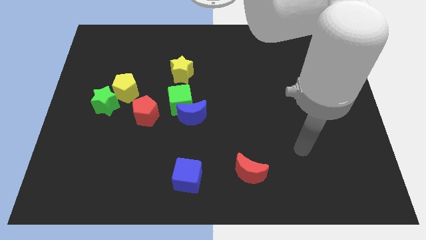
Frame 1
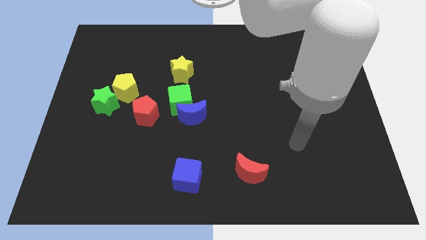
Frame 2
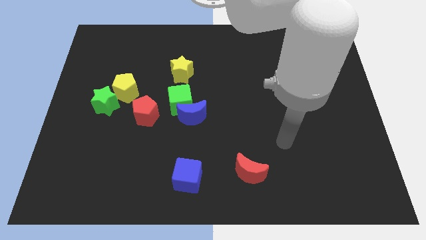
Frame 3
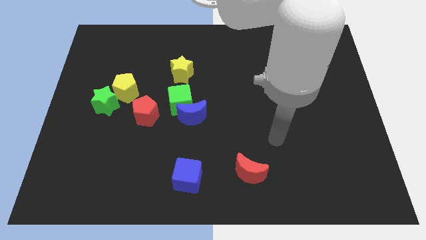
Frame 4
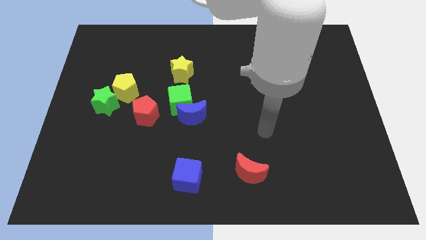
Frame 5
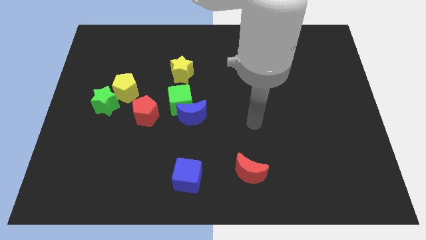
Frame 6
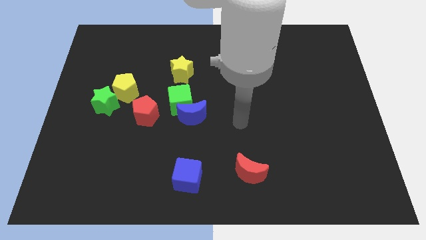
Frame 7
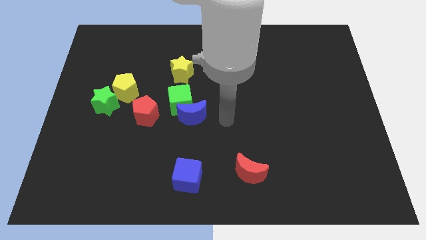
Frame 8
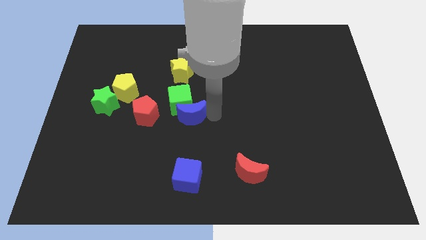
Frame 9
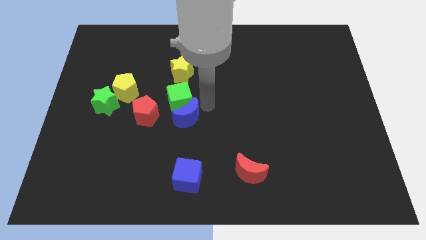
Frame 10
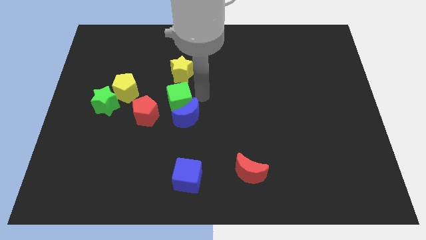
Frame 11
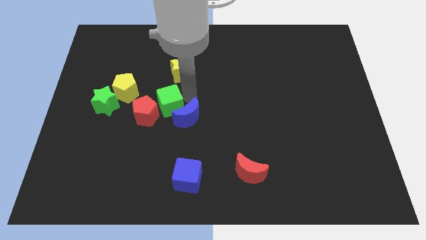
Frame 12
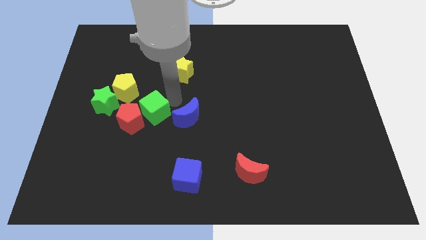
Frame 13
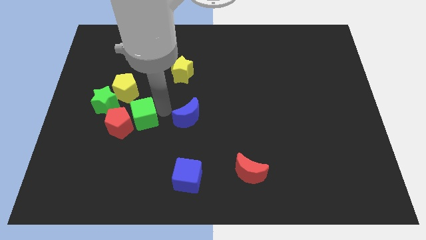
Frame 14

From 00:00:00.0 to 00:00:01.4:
separate the blue moon from the green cube

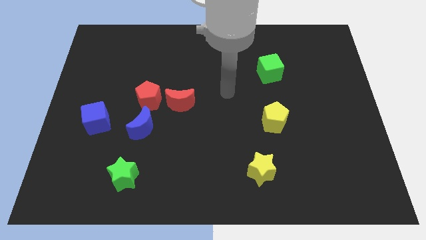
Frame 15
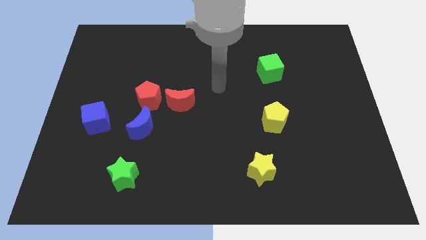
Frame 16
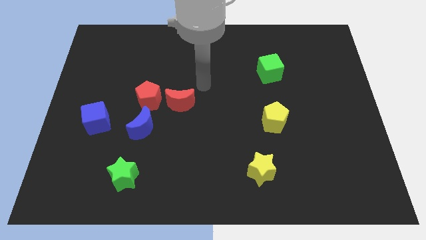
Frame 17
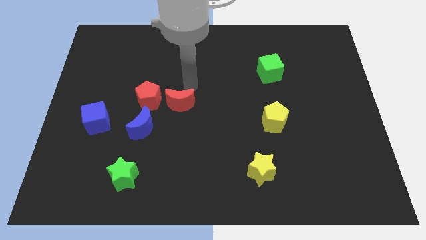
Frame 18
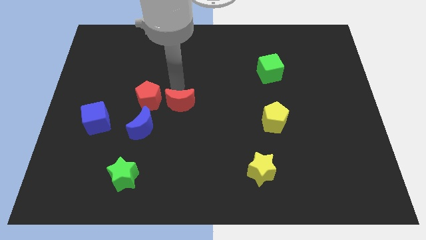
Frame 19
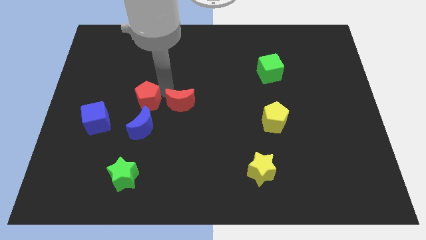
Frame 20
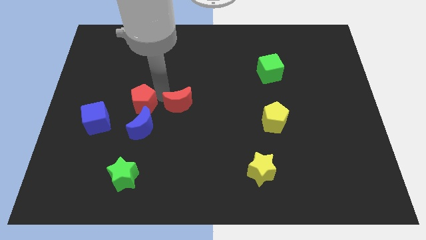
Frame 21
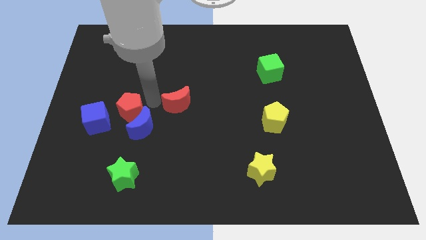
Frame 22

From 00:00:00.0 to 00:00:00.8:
move the red moon away from the red pentagon

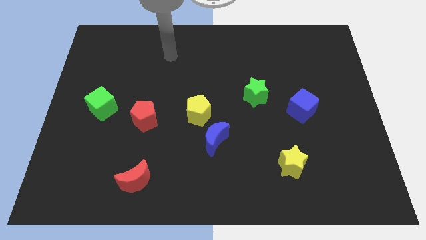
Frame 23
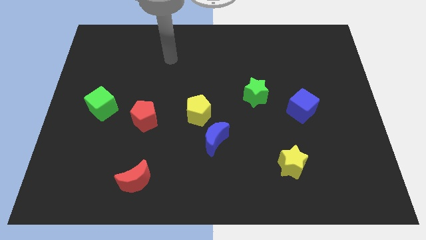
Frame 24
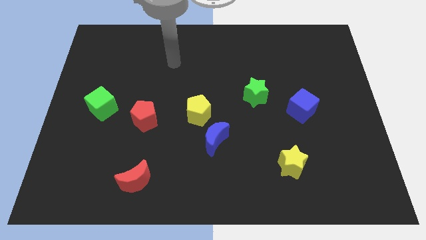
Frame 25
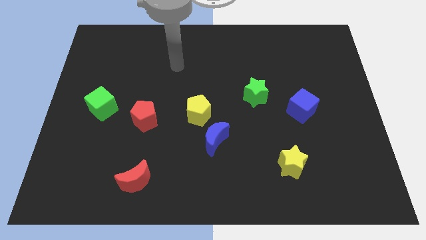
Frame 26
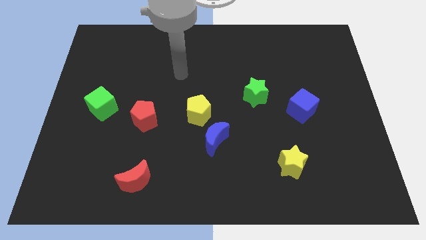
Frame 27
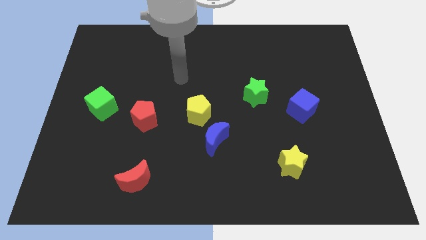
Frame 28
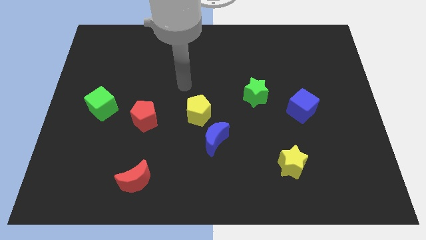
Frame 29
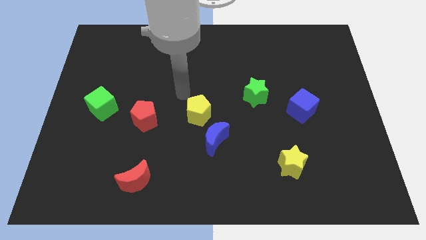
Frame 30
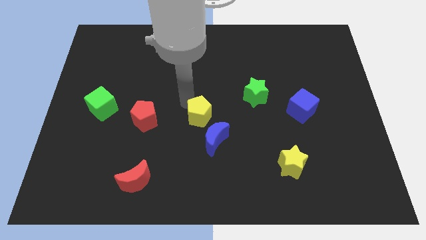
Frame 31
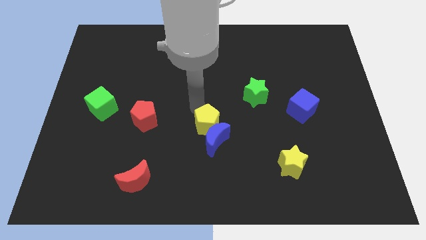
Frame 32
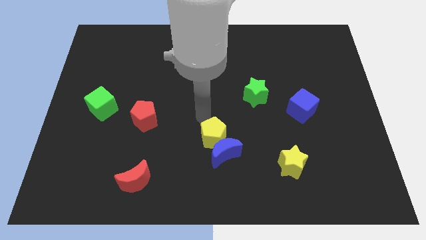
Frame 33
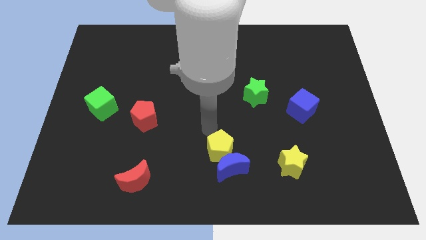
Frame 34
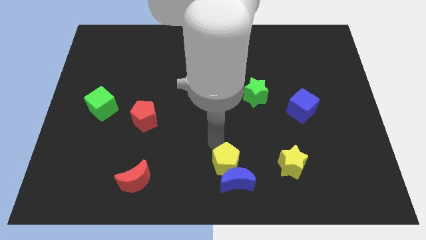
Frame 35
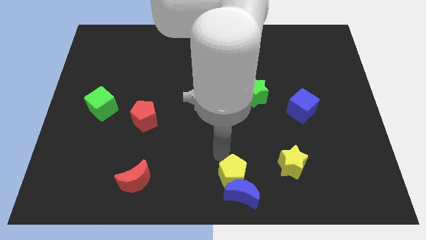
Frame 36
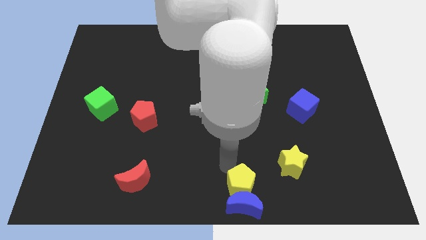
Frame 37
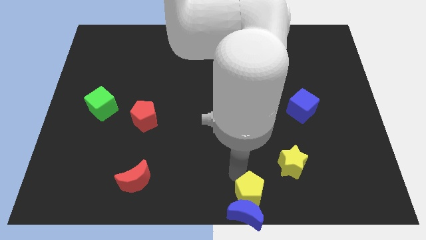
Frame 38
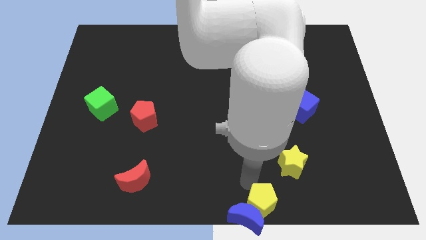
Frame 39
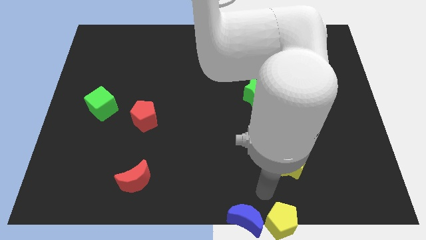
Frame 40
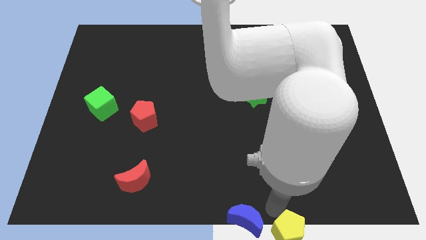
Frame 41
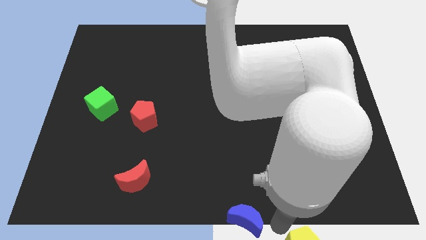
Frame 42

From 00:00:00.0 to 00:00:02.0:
separate the blue moon from the yellow pentagon

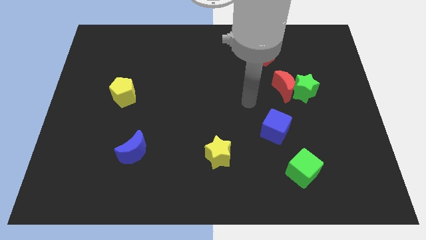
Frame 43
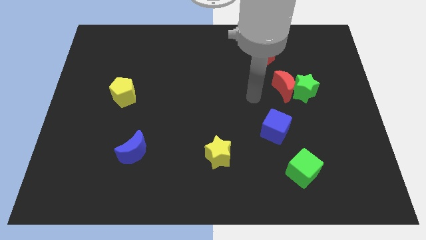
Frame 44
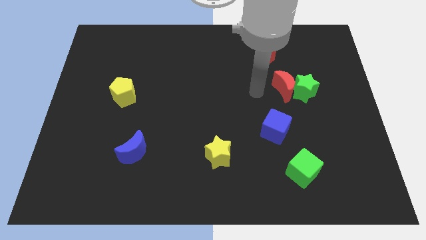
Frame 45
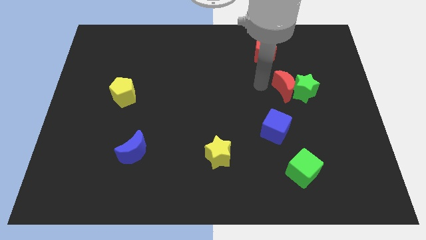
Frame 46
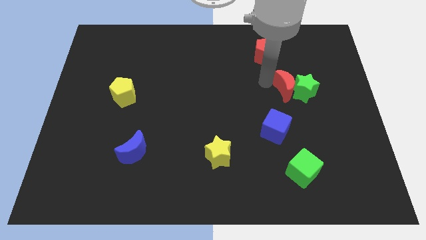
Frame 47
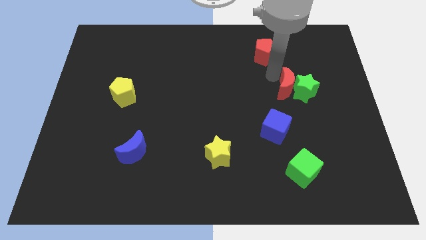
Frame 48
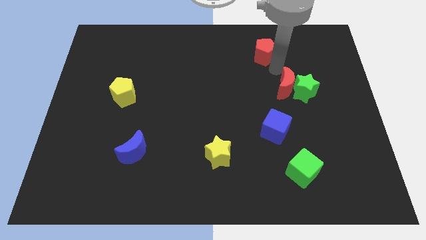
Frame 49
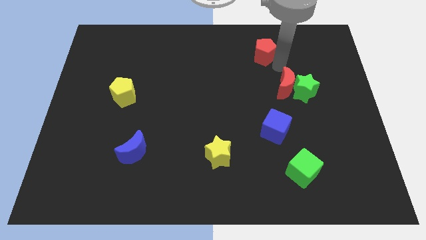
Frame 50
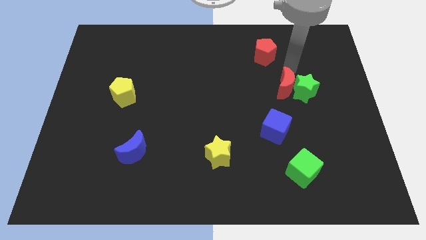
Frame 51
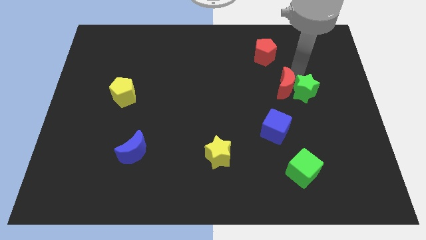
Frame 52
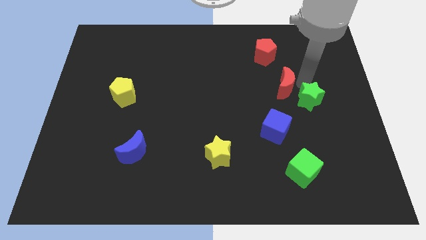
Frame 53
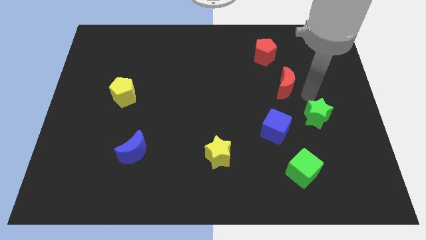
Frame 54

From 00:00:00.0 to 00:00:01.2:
separate the red moon from the green star

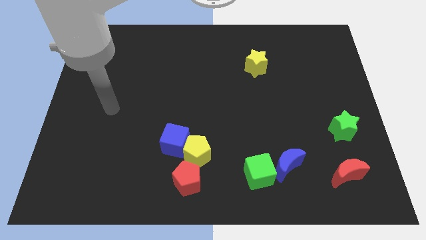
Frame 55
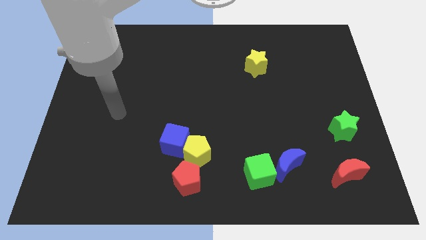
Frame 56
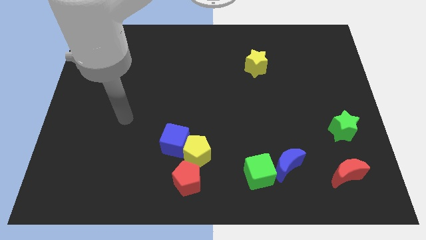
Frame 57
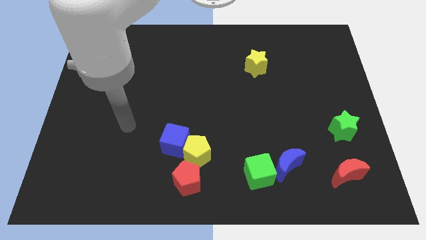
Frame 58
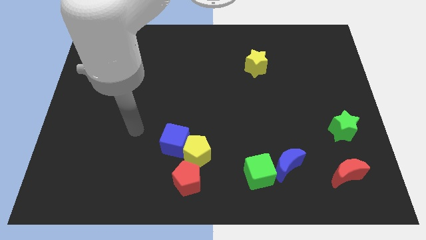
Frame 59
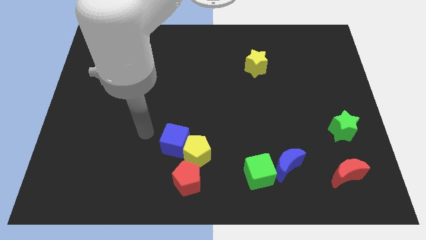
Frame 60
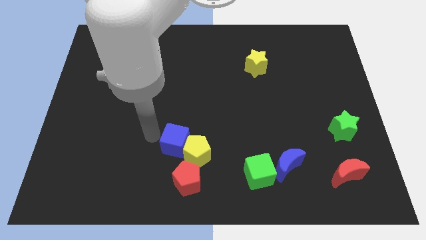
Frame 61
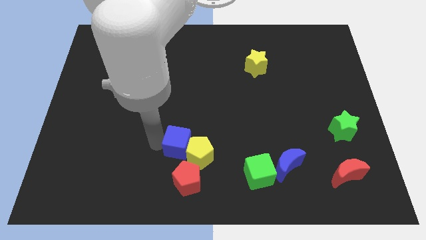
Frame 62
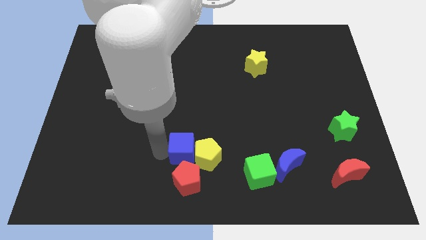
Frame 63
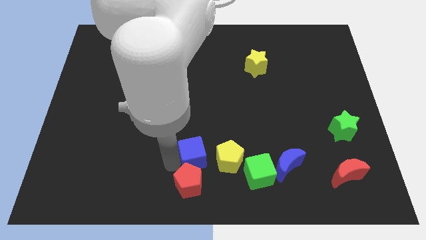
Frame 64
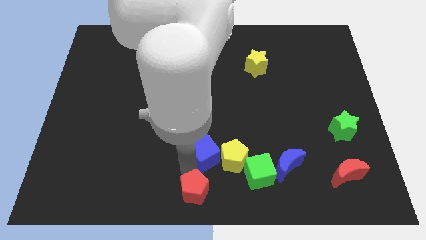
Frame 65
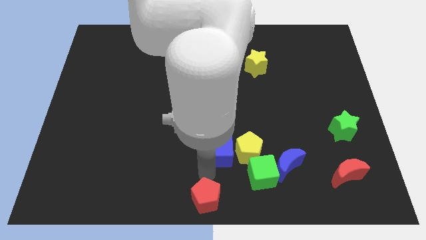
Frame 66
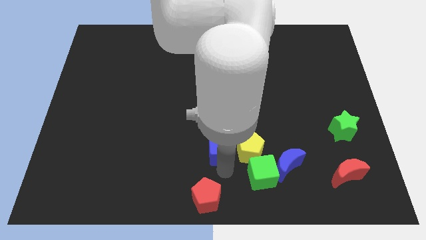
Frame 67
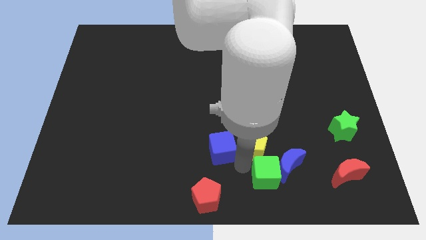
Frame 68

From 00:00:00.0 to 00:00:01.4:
move the yellow pentagon away from the blue cube and red pentagon

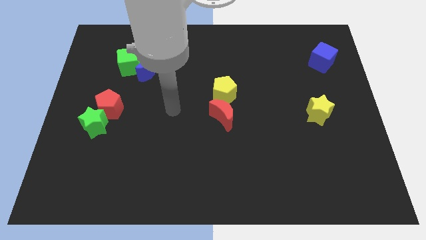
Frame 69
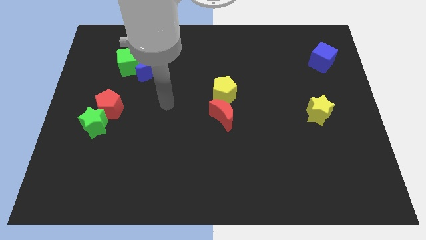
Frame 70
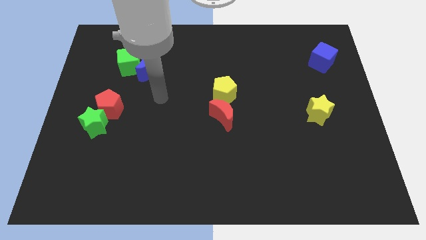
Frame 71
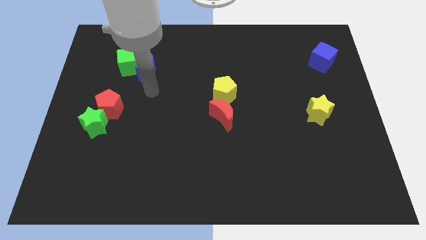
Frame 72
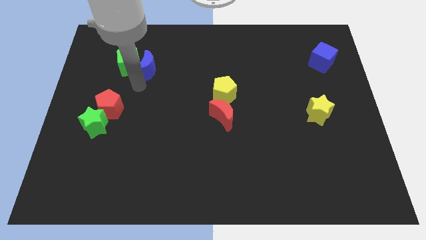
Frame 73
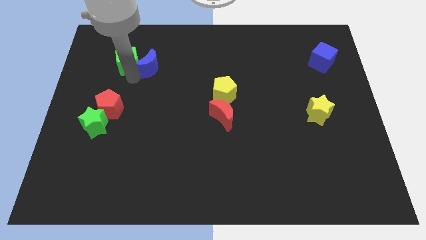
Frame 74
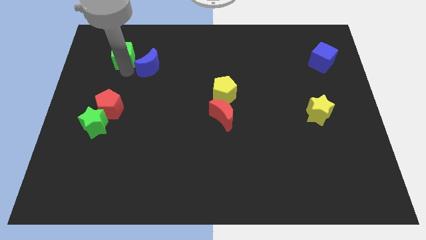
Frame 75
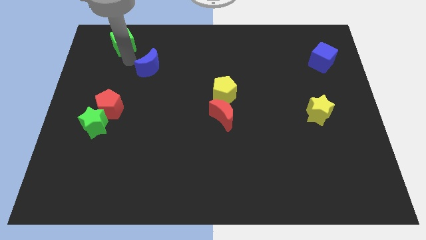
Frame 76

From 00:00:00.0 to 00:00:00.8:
pull the blue moon apart from the green cube

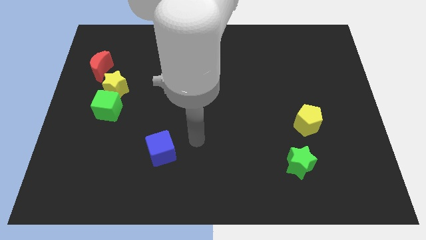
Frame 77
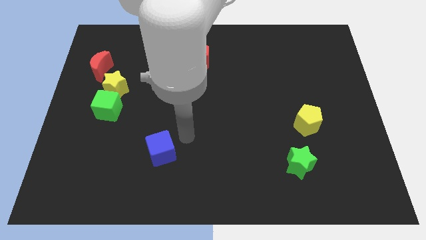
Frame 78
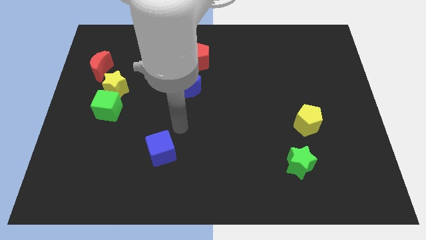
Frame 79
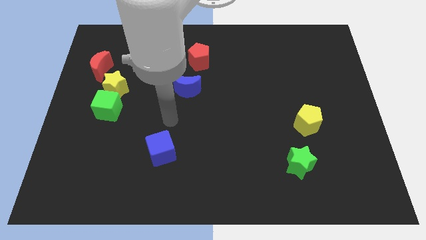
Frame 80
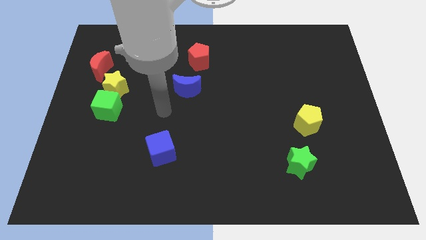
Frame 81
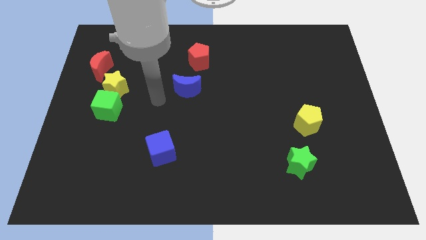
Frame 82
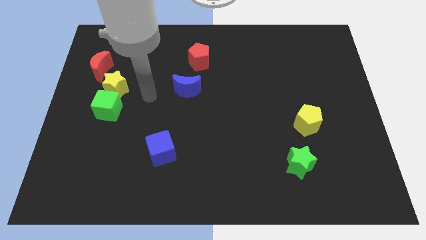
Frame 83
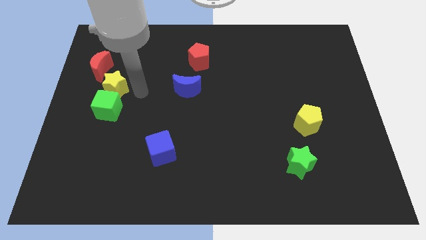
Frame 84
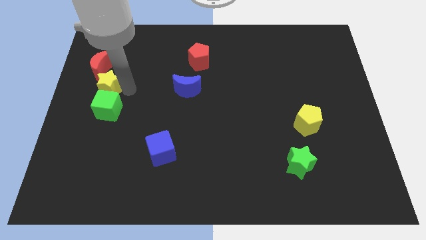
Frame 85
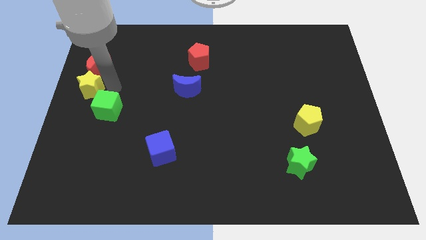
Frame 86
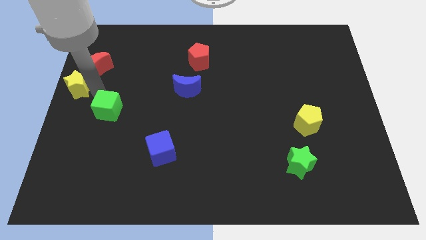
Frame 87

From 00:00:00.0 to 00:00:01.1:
move the green cube away from the yellow star

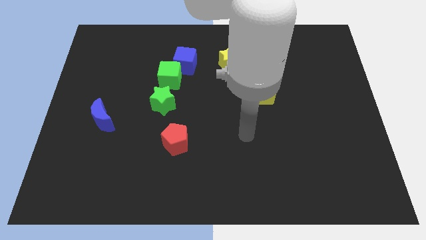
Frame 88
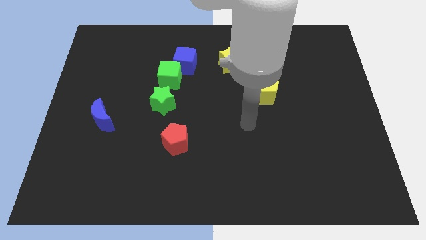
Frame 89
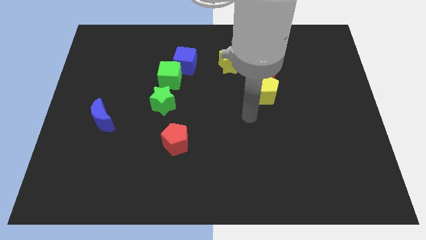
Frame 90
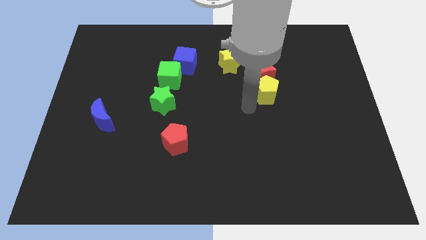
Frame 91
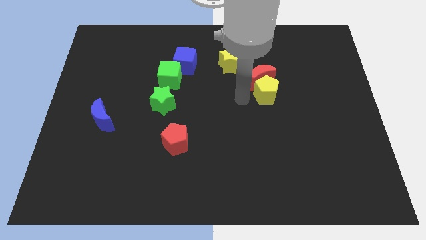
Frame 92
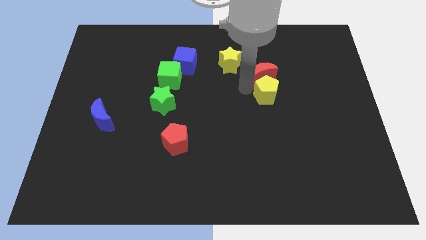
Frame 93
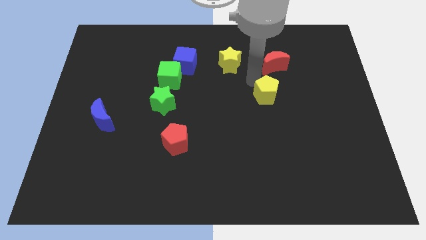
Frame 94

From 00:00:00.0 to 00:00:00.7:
move the yellow pentagon away from the red moon
